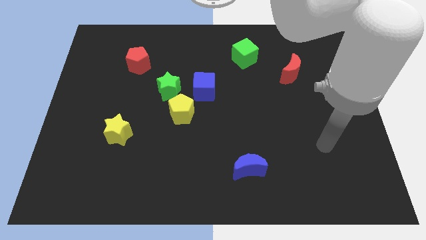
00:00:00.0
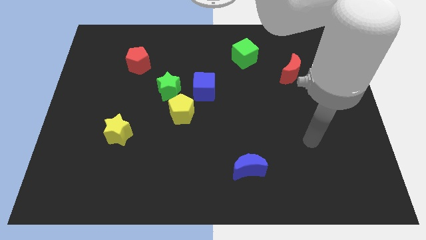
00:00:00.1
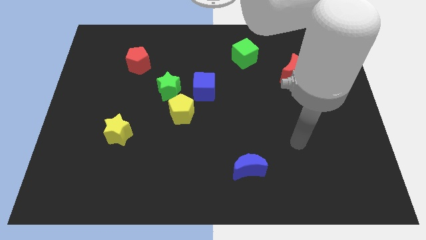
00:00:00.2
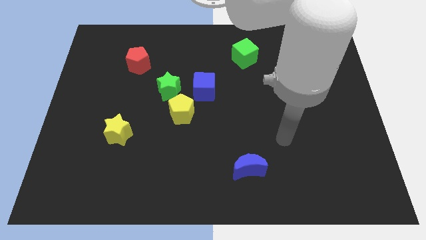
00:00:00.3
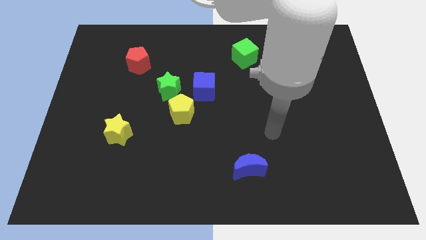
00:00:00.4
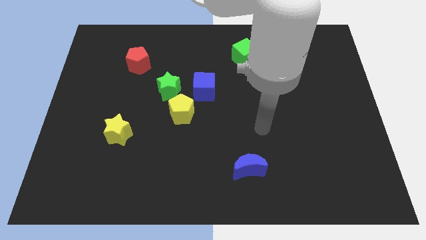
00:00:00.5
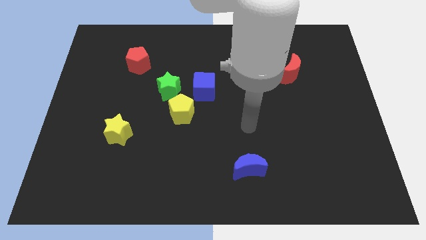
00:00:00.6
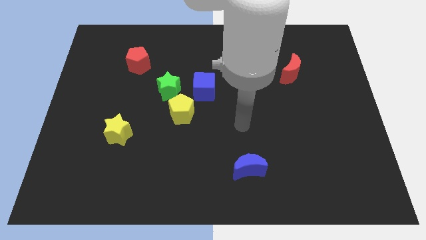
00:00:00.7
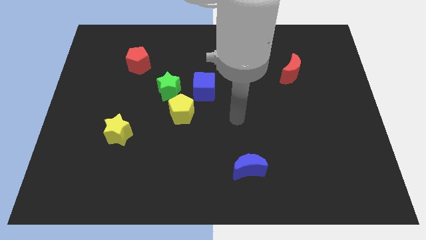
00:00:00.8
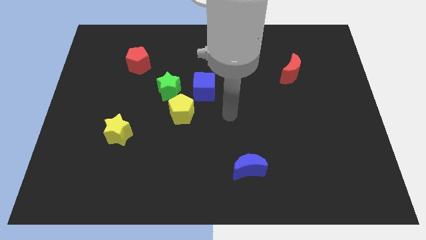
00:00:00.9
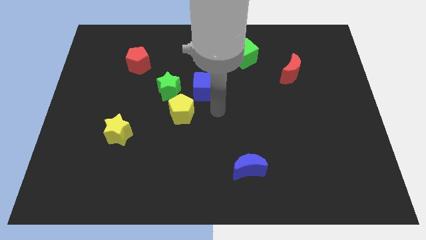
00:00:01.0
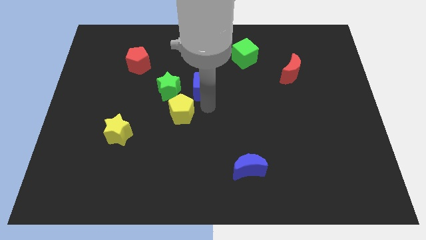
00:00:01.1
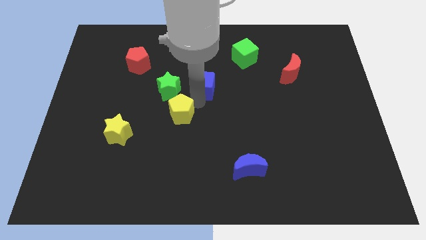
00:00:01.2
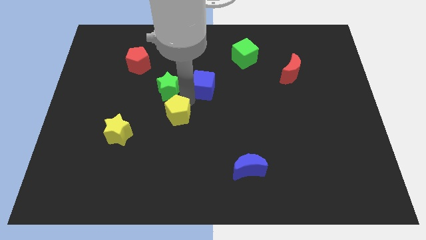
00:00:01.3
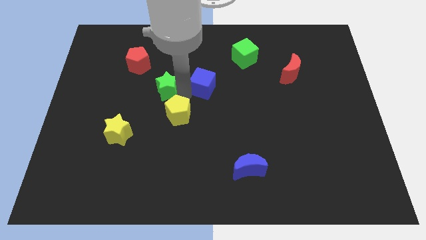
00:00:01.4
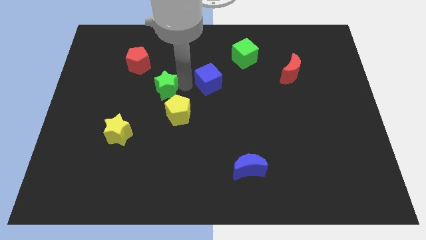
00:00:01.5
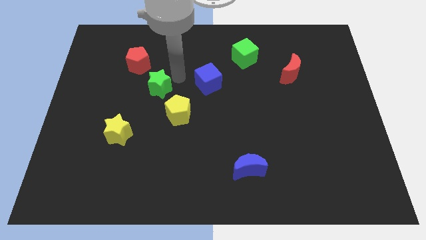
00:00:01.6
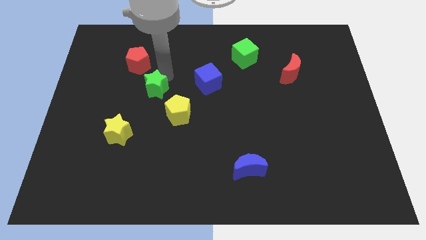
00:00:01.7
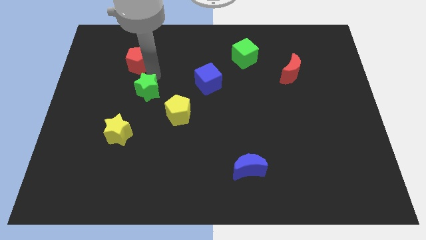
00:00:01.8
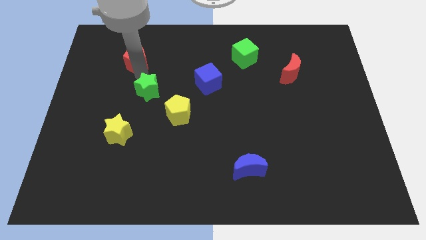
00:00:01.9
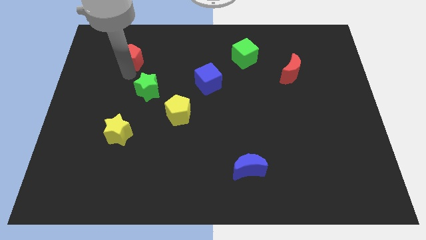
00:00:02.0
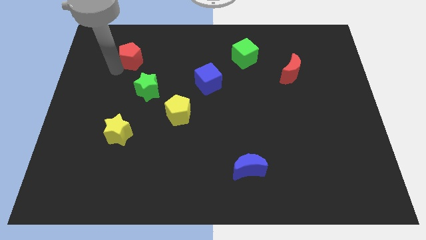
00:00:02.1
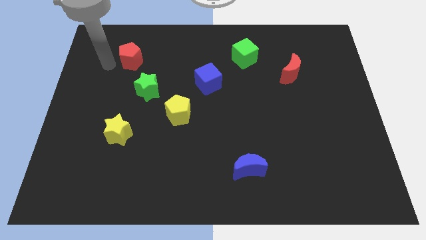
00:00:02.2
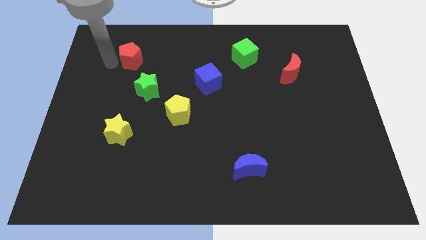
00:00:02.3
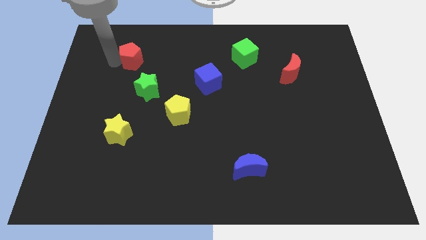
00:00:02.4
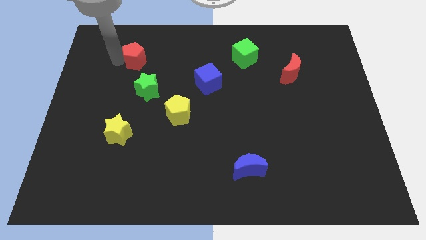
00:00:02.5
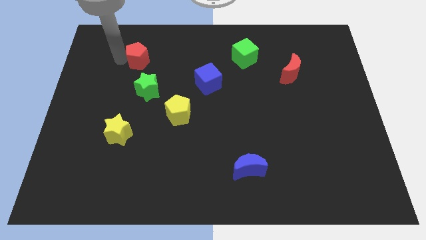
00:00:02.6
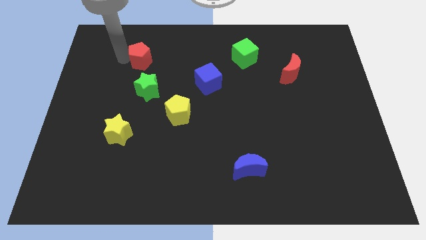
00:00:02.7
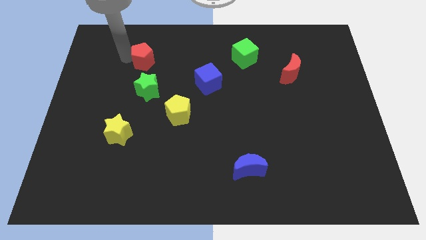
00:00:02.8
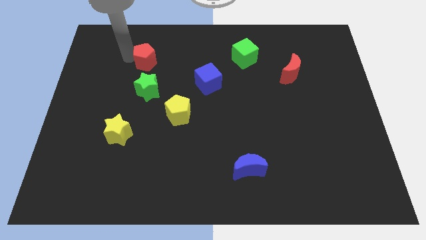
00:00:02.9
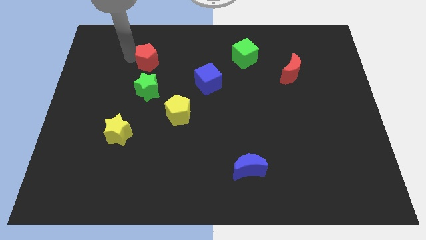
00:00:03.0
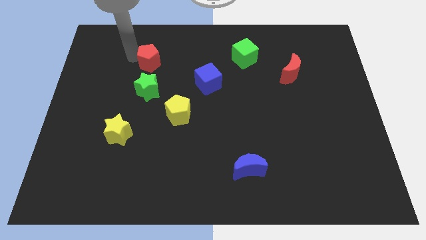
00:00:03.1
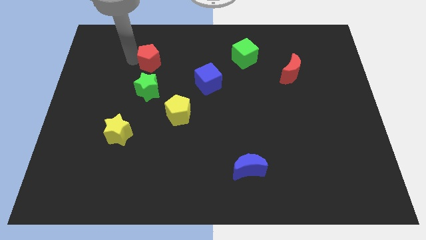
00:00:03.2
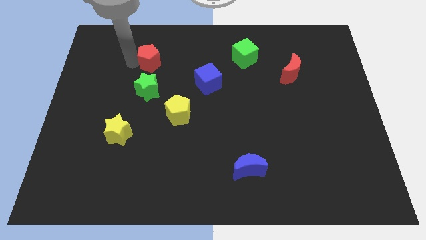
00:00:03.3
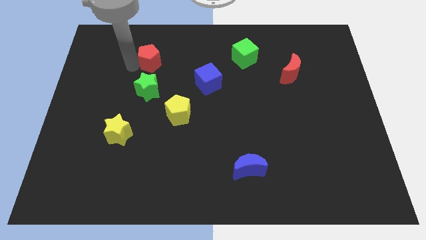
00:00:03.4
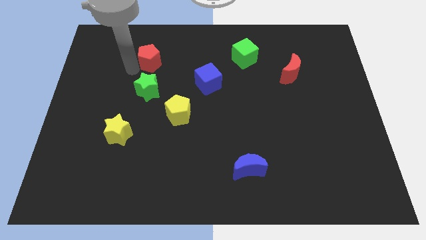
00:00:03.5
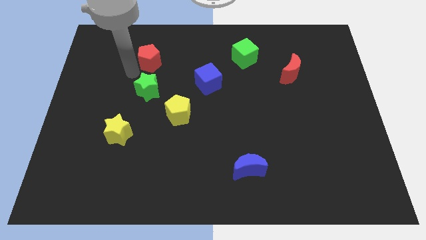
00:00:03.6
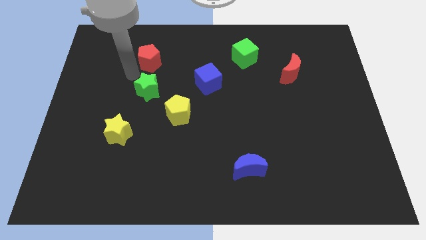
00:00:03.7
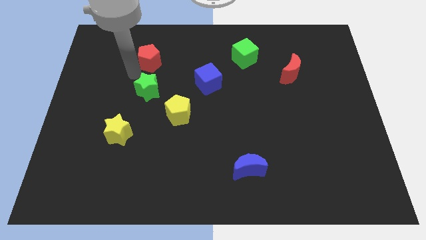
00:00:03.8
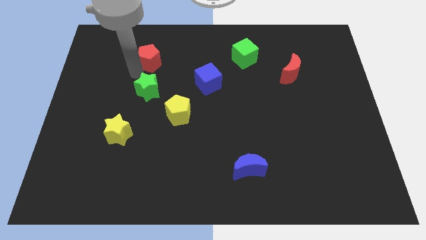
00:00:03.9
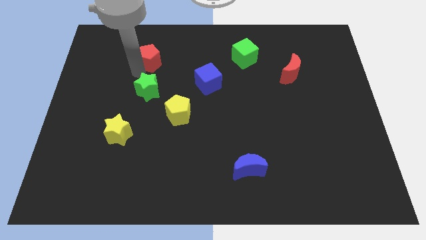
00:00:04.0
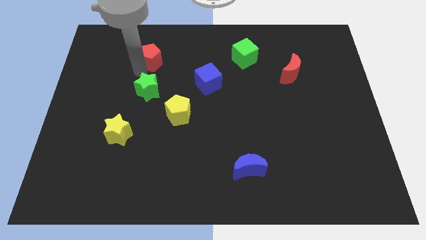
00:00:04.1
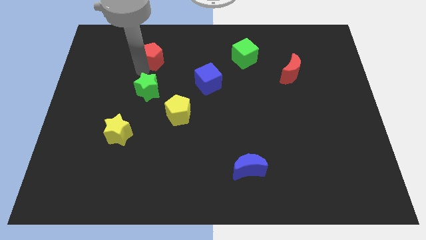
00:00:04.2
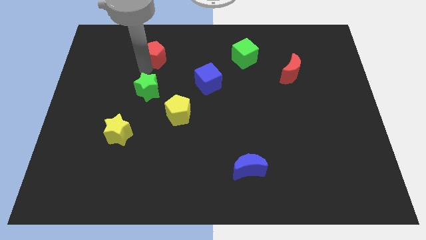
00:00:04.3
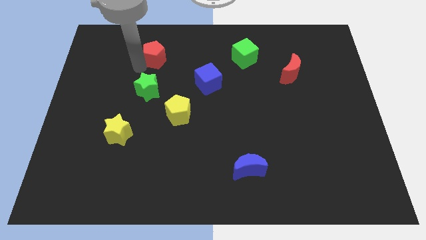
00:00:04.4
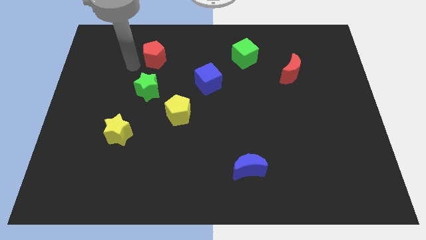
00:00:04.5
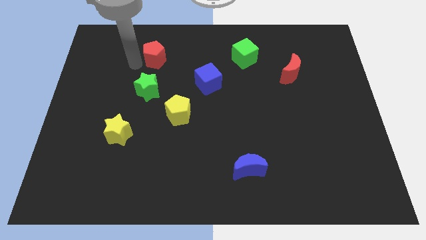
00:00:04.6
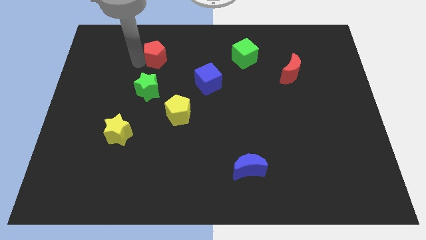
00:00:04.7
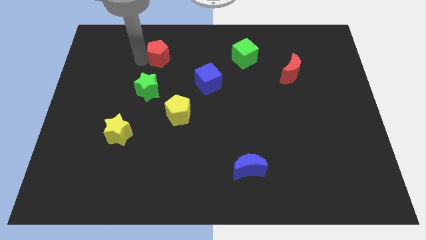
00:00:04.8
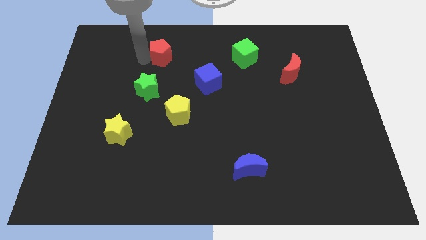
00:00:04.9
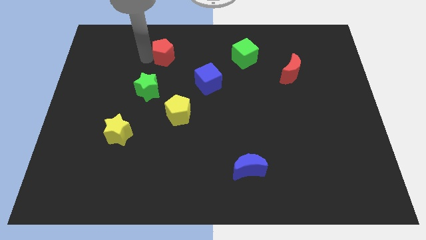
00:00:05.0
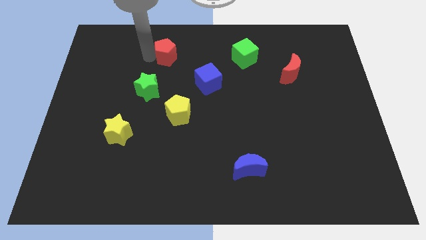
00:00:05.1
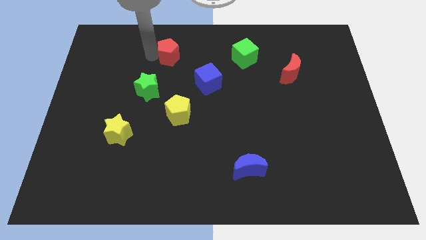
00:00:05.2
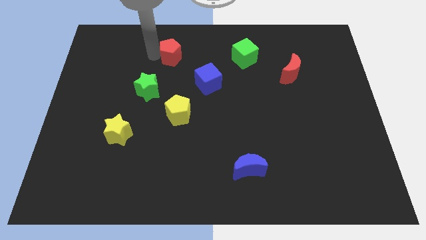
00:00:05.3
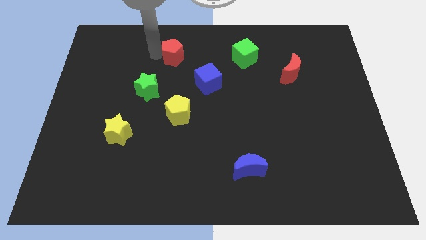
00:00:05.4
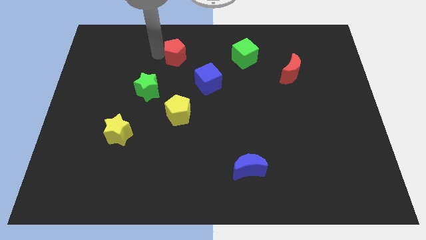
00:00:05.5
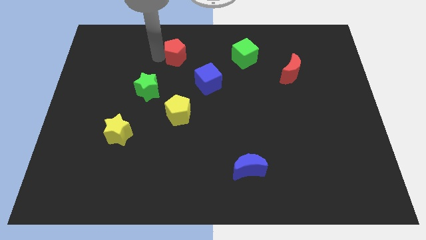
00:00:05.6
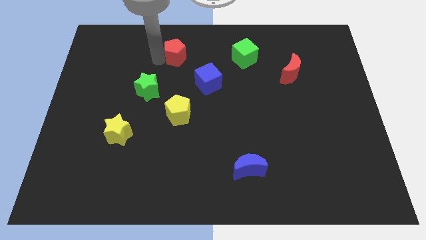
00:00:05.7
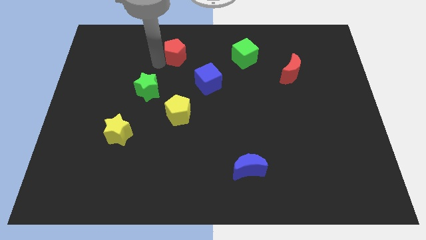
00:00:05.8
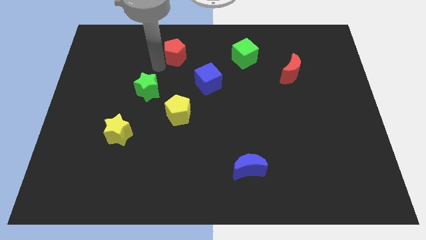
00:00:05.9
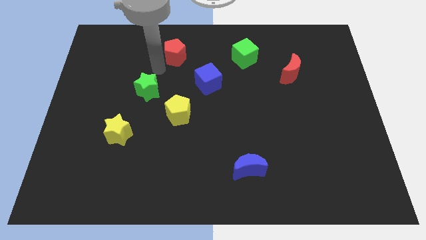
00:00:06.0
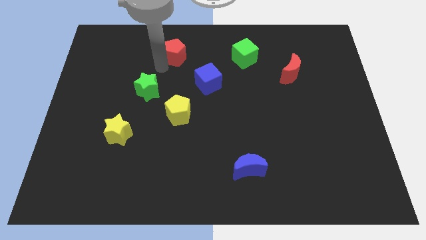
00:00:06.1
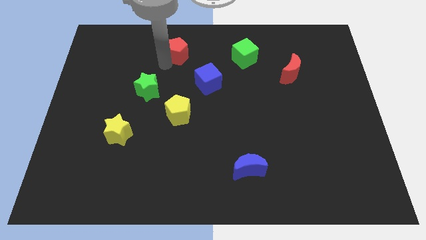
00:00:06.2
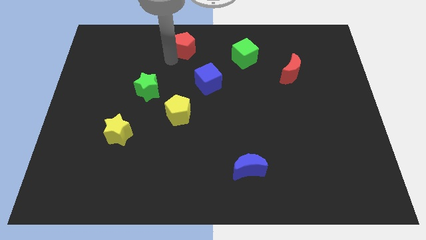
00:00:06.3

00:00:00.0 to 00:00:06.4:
move the red pentagon to the top

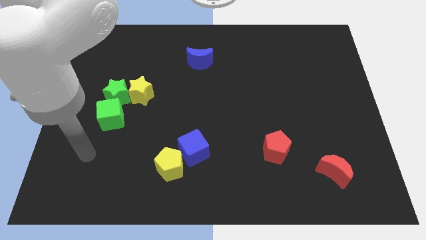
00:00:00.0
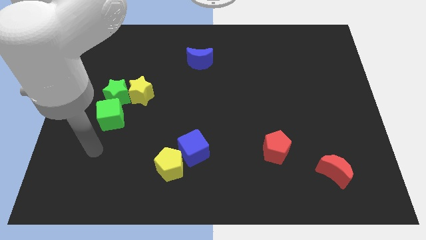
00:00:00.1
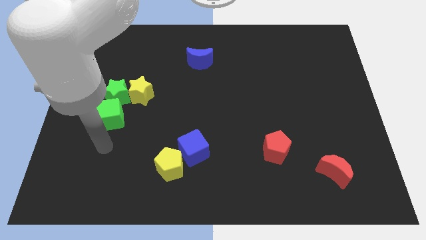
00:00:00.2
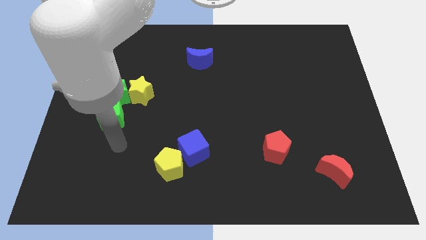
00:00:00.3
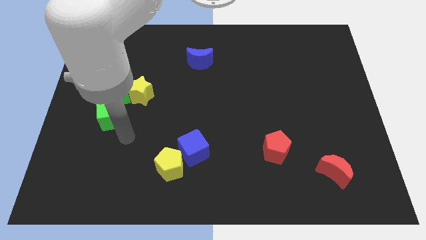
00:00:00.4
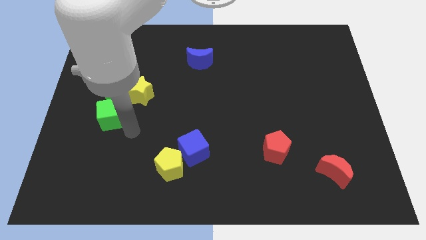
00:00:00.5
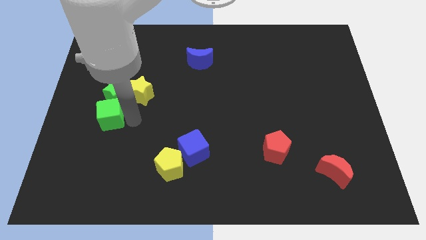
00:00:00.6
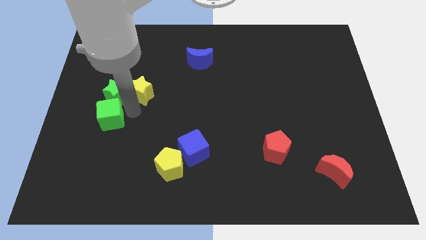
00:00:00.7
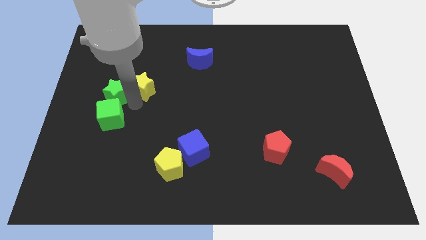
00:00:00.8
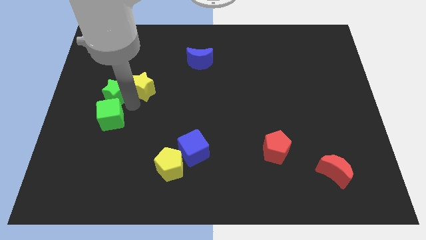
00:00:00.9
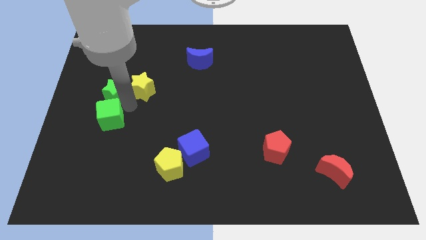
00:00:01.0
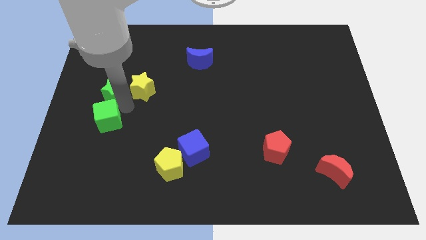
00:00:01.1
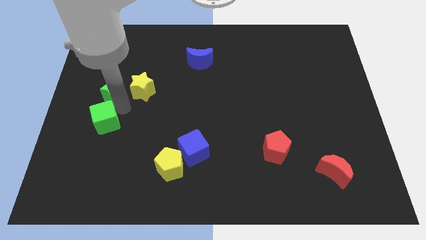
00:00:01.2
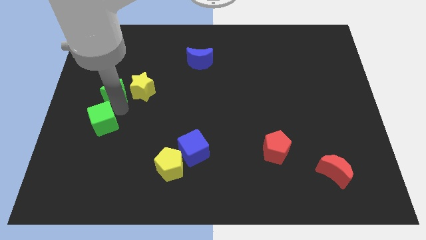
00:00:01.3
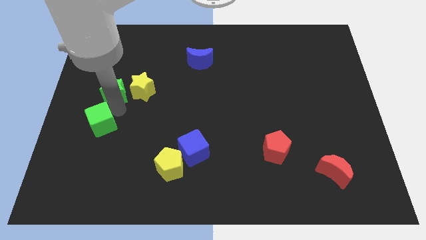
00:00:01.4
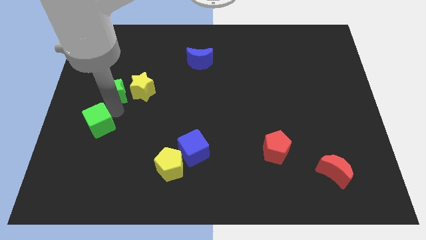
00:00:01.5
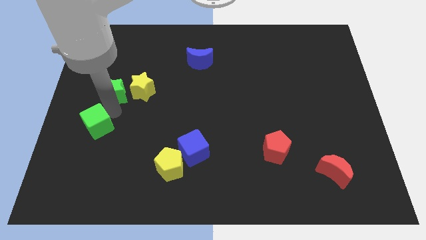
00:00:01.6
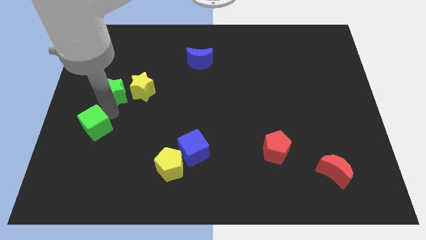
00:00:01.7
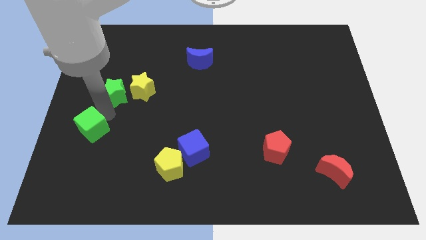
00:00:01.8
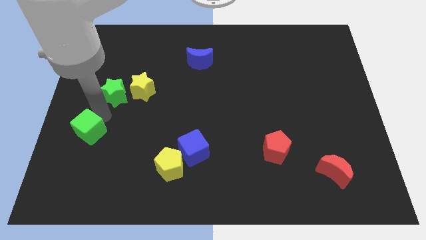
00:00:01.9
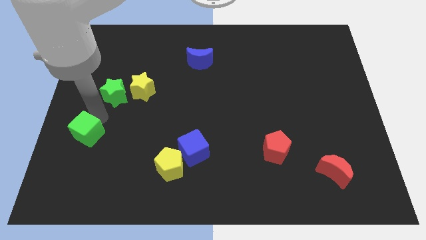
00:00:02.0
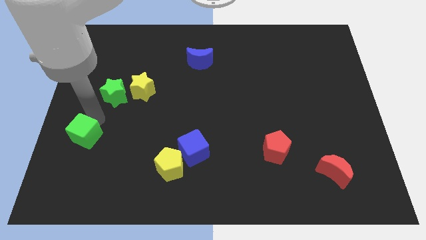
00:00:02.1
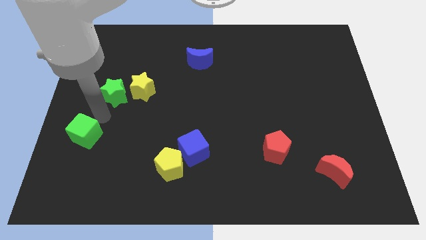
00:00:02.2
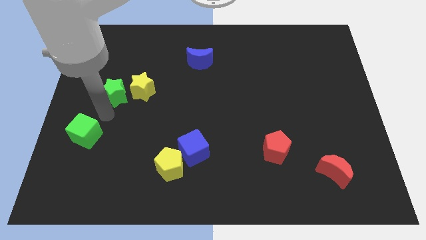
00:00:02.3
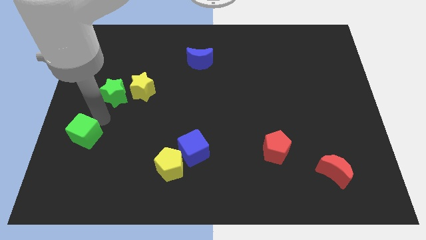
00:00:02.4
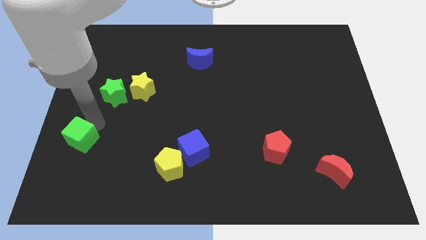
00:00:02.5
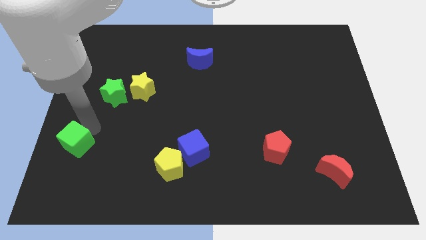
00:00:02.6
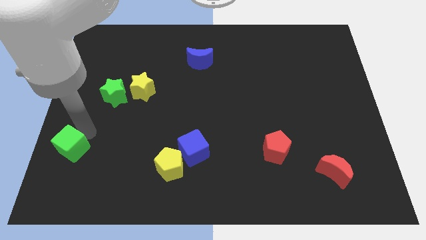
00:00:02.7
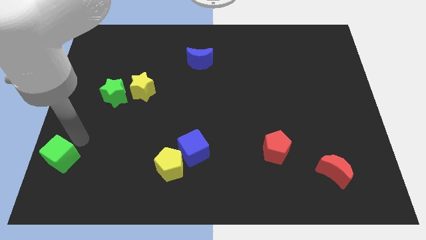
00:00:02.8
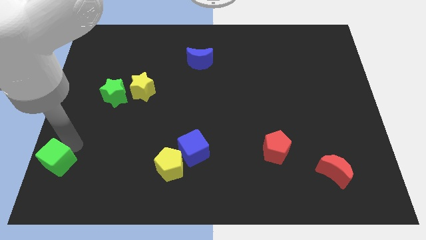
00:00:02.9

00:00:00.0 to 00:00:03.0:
move the green cube to the bottom left of the board
